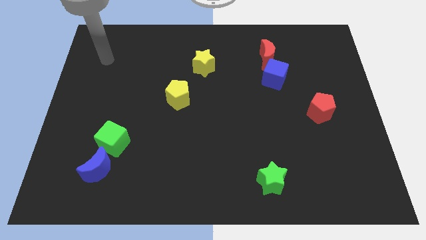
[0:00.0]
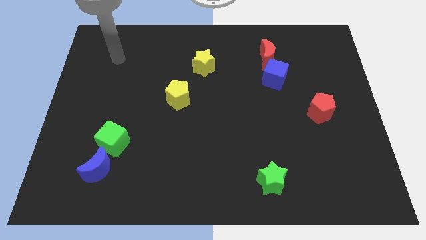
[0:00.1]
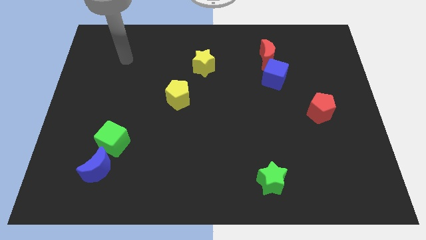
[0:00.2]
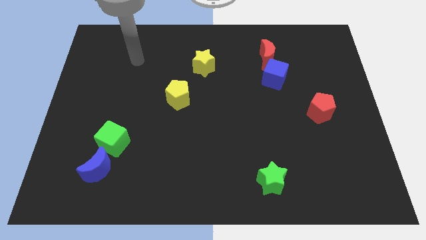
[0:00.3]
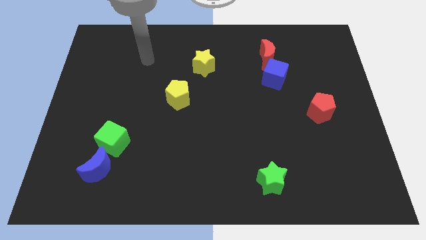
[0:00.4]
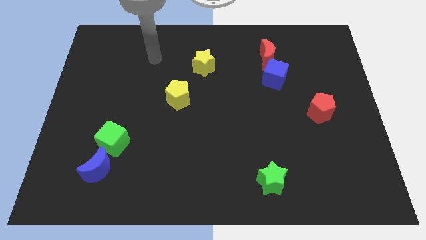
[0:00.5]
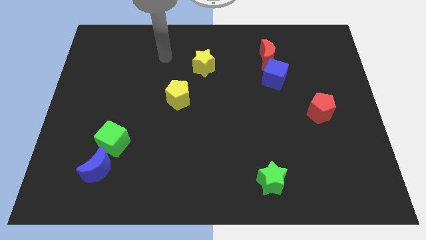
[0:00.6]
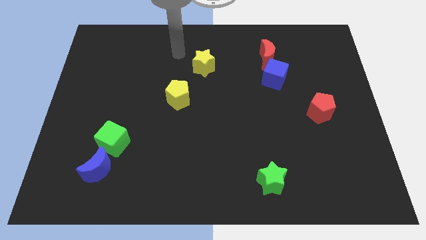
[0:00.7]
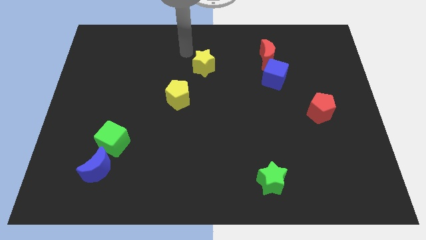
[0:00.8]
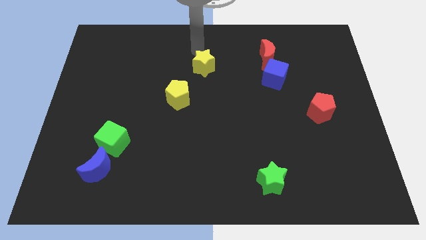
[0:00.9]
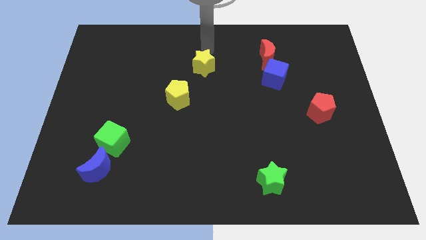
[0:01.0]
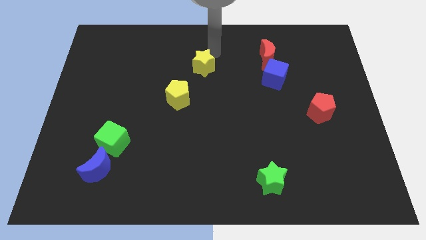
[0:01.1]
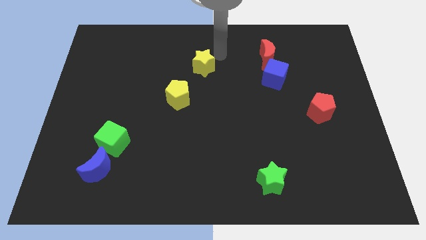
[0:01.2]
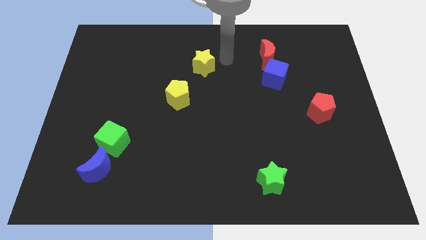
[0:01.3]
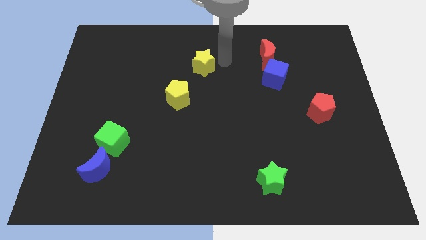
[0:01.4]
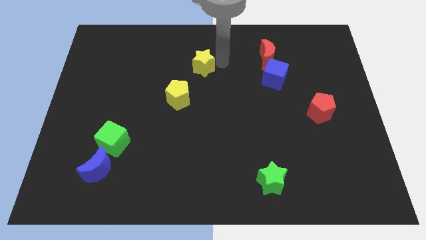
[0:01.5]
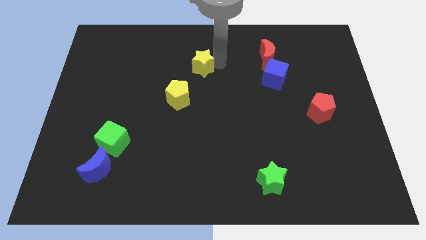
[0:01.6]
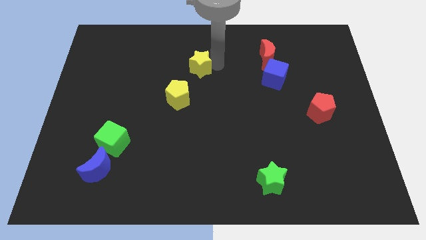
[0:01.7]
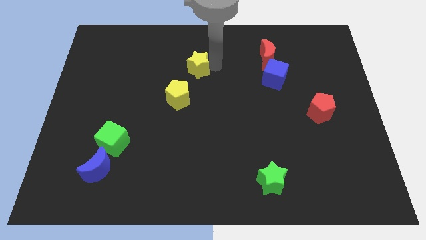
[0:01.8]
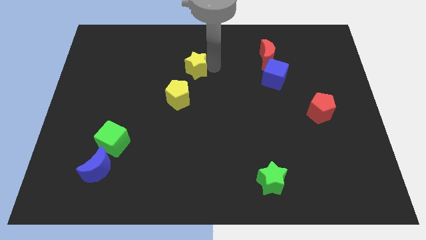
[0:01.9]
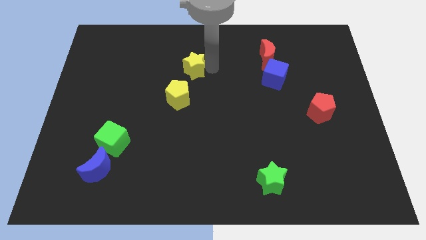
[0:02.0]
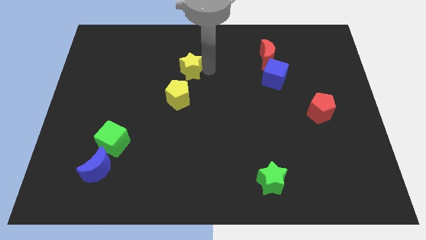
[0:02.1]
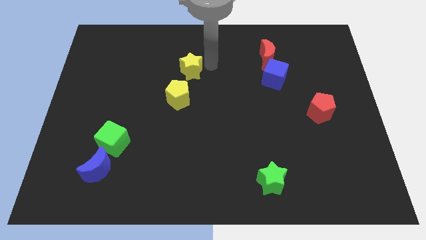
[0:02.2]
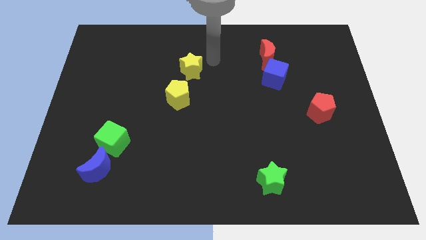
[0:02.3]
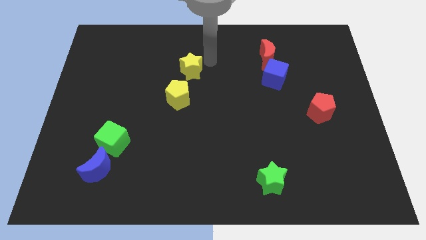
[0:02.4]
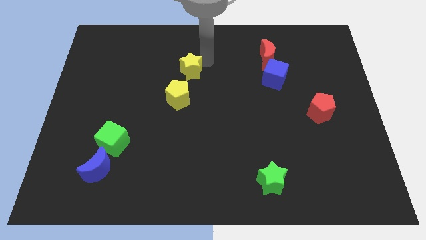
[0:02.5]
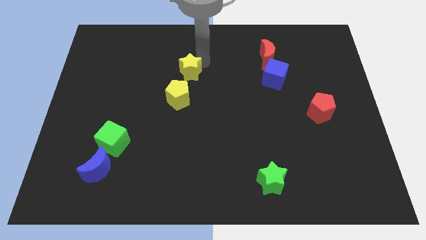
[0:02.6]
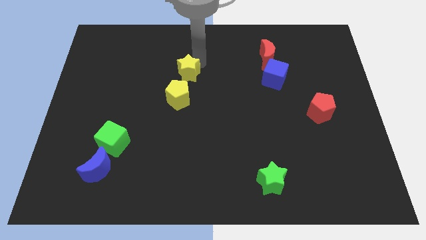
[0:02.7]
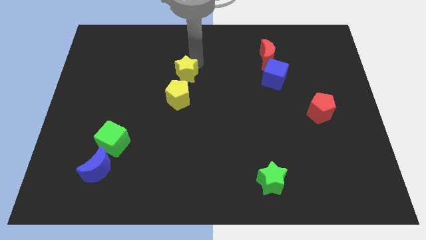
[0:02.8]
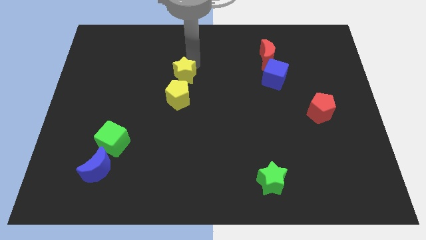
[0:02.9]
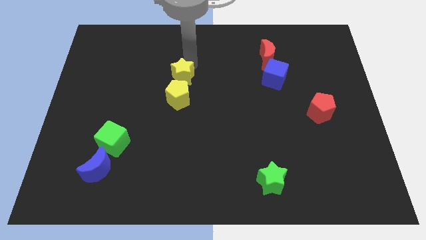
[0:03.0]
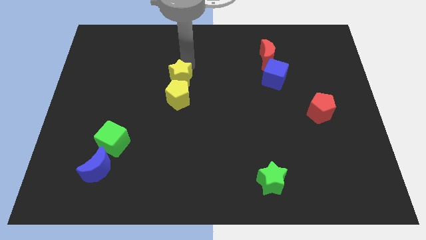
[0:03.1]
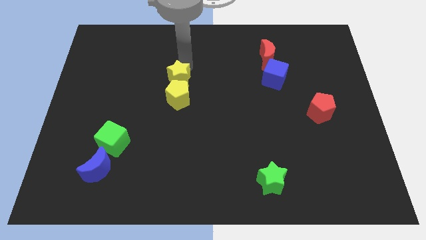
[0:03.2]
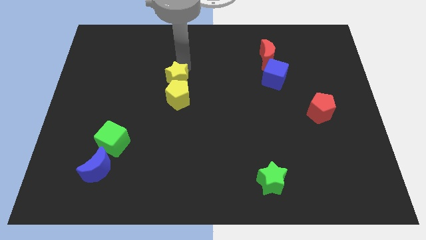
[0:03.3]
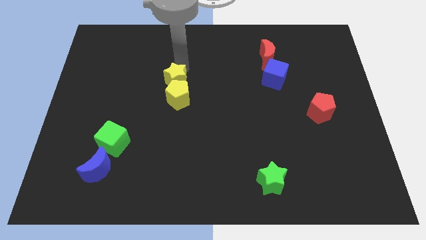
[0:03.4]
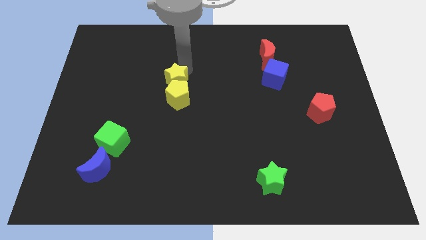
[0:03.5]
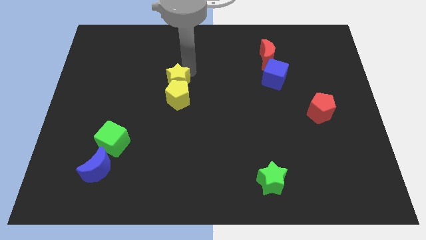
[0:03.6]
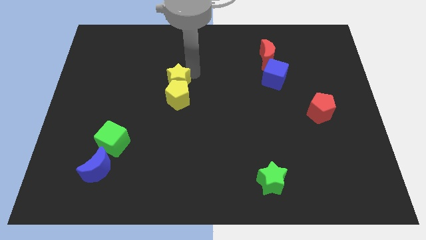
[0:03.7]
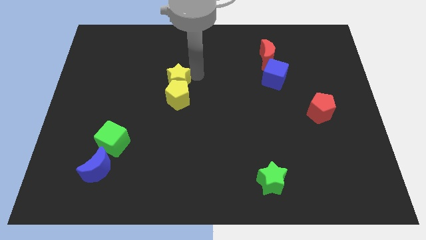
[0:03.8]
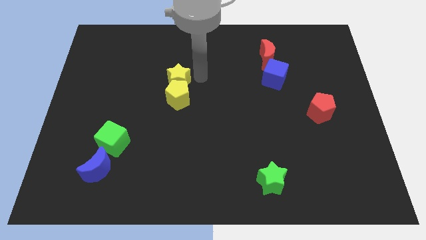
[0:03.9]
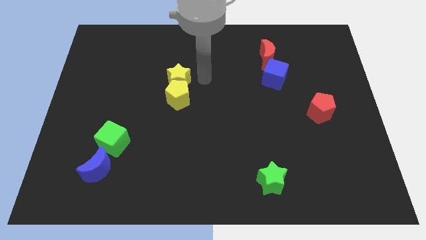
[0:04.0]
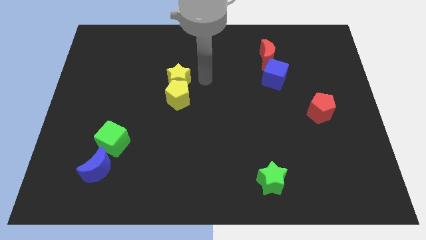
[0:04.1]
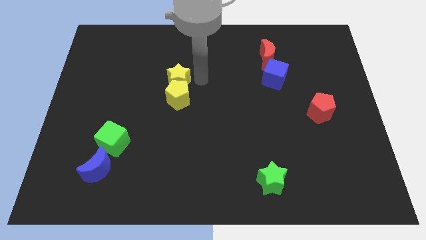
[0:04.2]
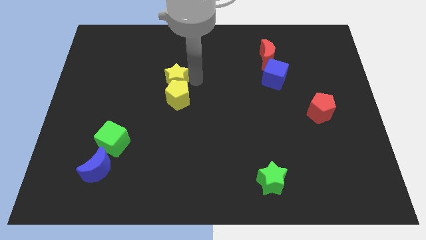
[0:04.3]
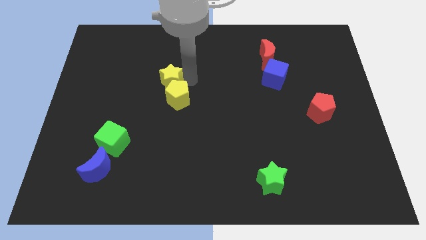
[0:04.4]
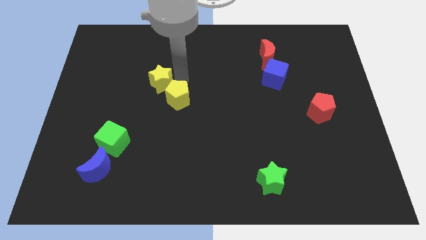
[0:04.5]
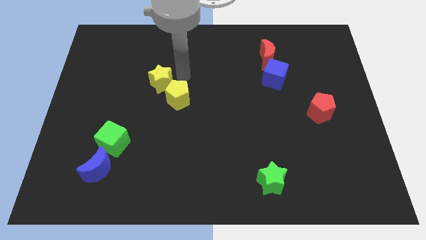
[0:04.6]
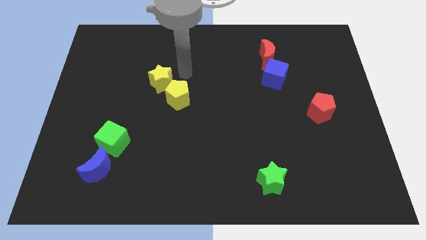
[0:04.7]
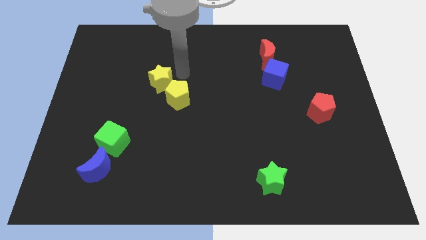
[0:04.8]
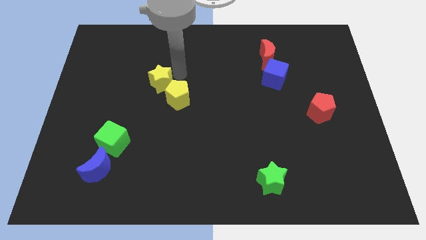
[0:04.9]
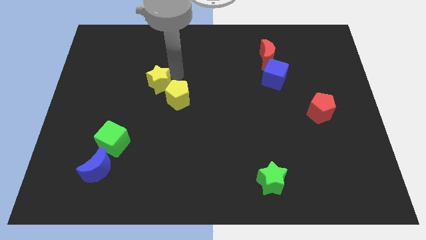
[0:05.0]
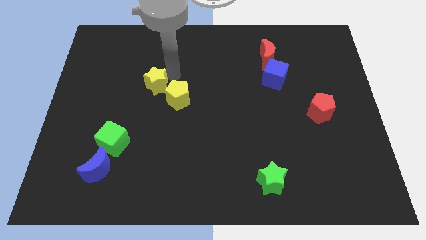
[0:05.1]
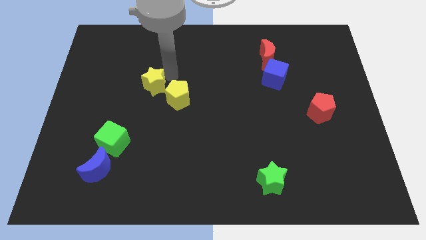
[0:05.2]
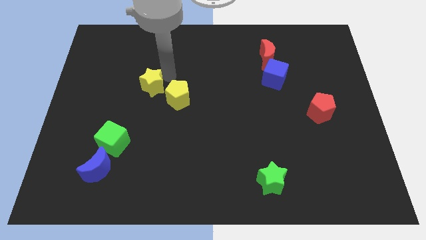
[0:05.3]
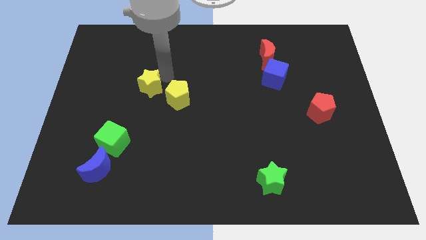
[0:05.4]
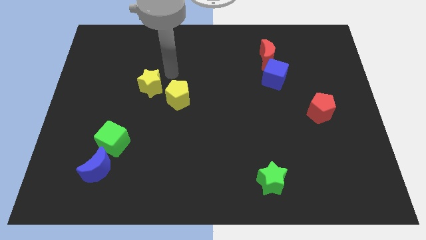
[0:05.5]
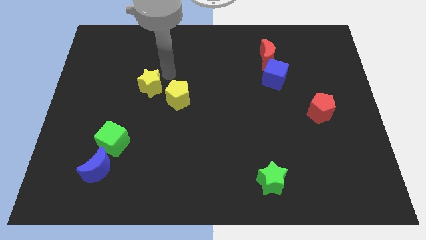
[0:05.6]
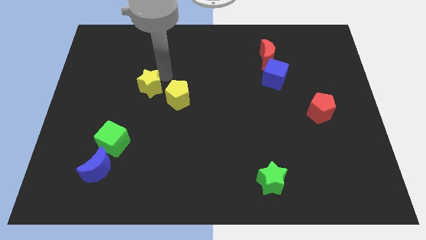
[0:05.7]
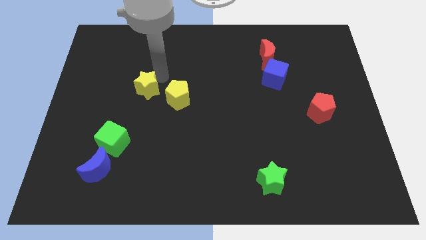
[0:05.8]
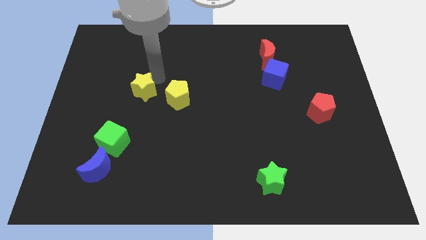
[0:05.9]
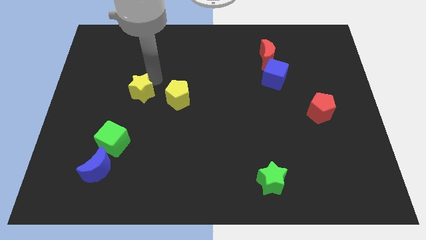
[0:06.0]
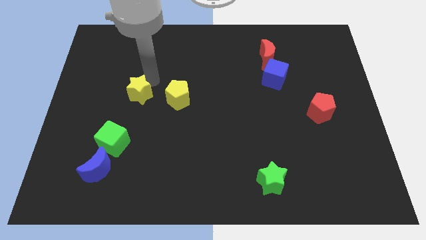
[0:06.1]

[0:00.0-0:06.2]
push the yellow star to the top side of the green cube

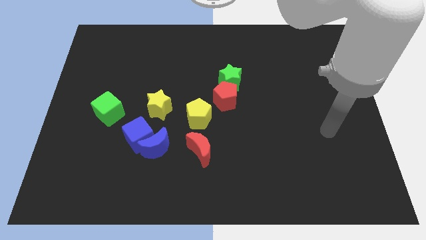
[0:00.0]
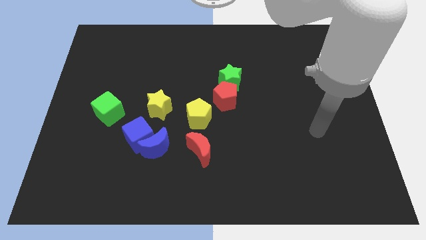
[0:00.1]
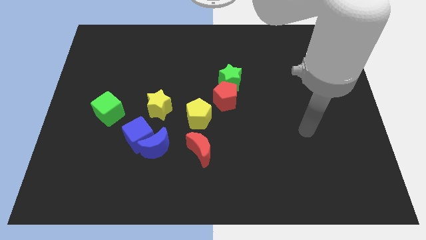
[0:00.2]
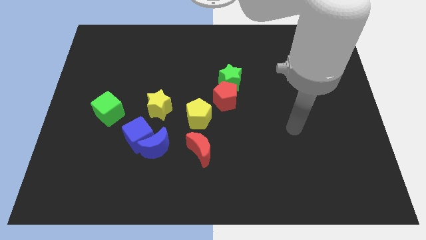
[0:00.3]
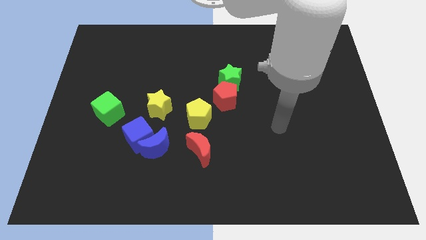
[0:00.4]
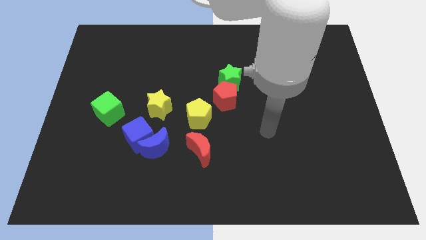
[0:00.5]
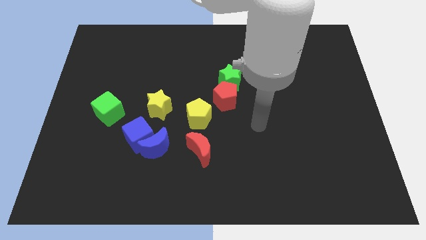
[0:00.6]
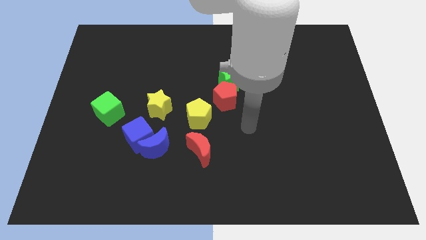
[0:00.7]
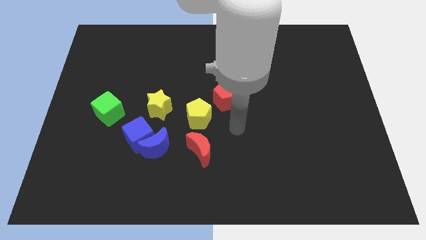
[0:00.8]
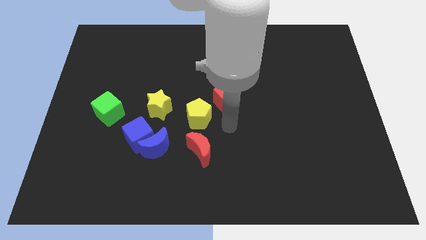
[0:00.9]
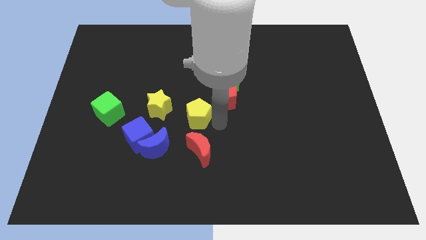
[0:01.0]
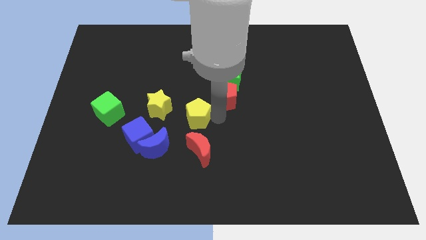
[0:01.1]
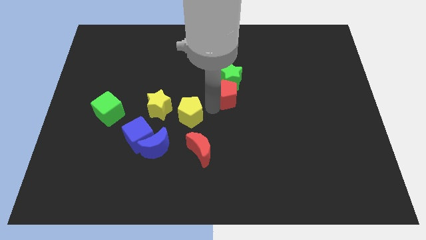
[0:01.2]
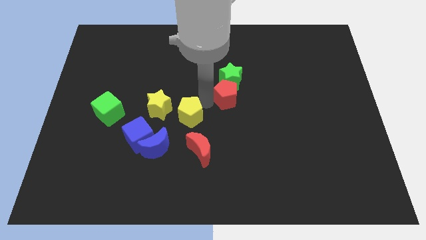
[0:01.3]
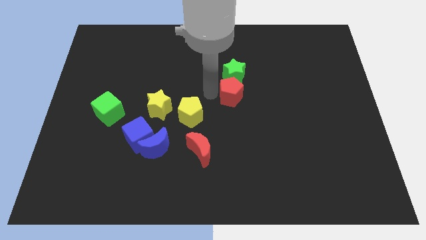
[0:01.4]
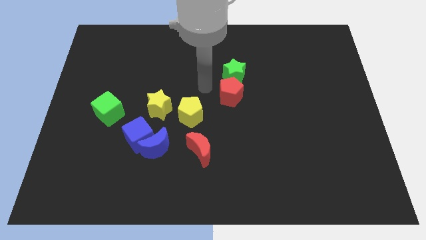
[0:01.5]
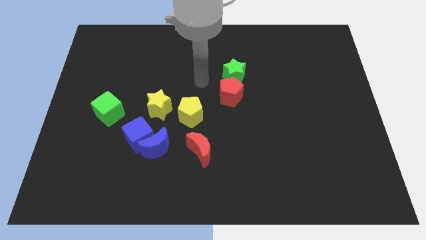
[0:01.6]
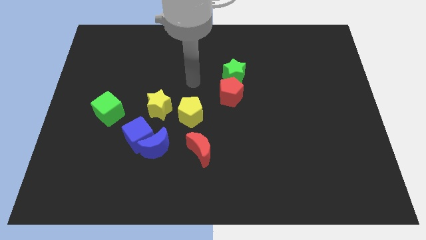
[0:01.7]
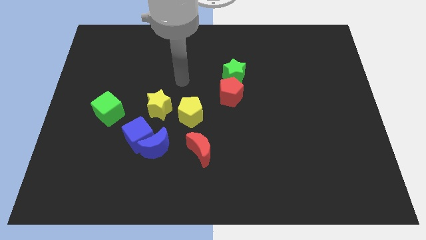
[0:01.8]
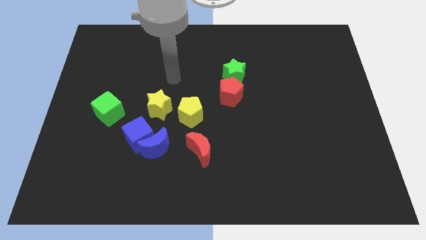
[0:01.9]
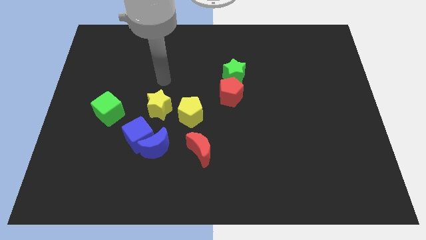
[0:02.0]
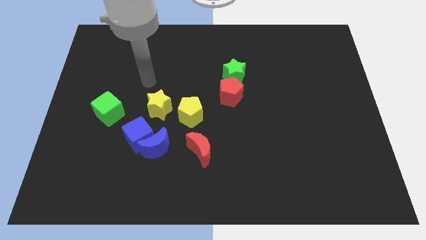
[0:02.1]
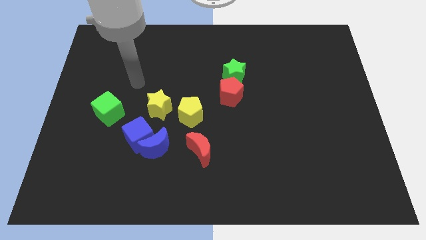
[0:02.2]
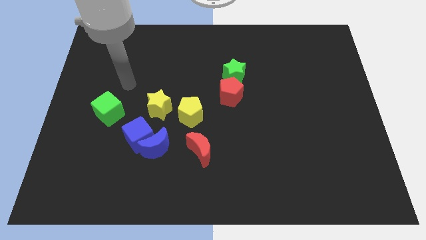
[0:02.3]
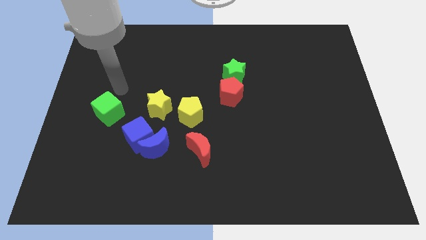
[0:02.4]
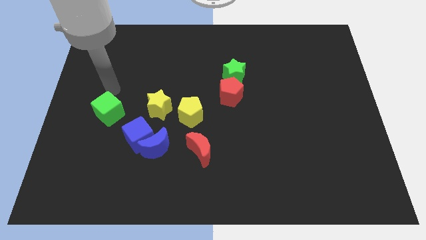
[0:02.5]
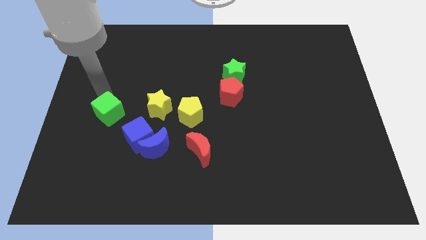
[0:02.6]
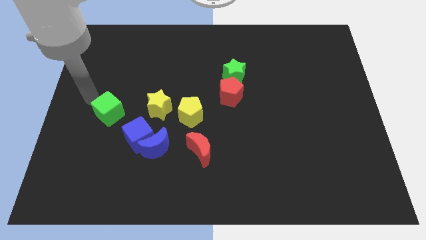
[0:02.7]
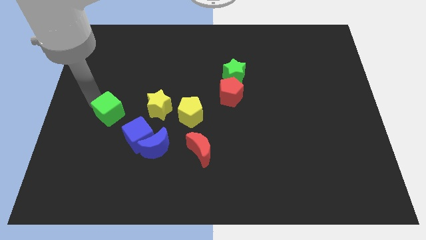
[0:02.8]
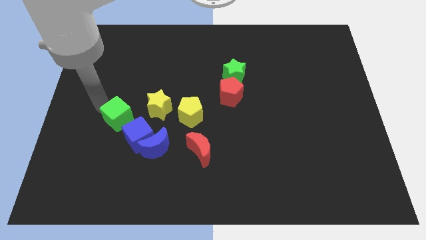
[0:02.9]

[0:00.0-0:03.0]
push the green cube to the top left side of the blue moon
